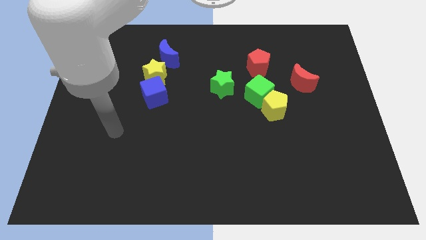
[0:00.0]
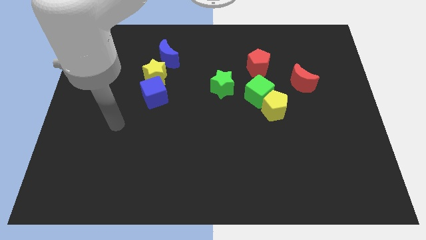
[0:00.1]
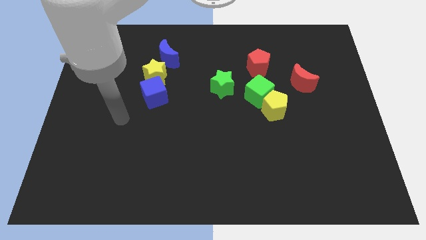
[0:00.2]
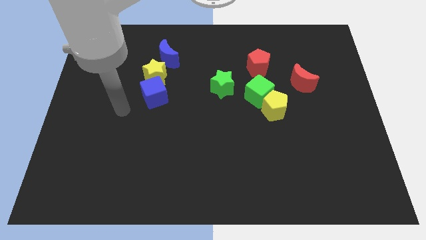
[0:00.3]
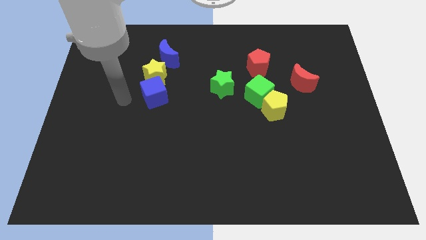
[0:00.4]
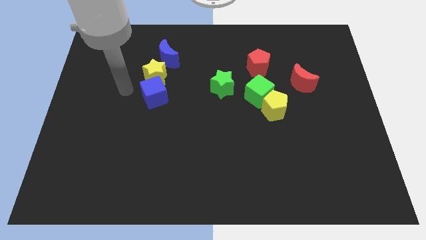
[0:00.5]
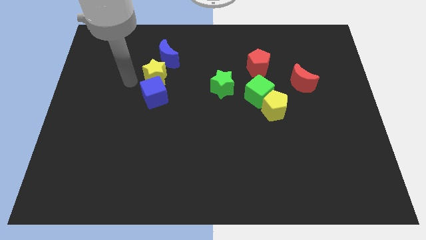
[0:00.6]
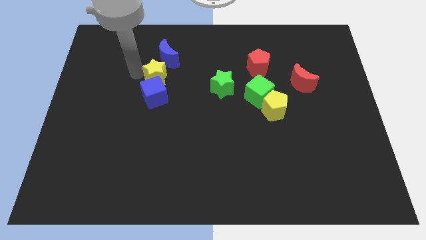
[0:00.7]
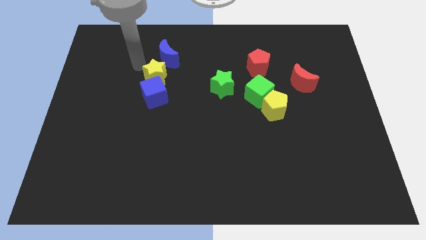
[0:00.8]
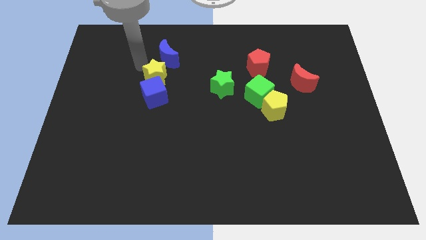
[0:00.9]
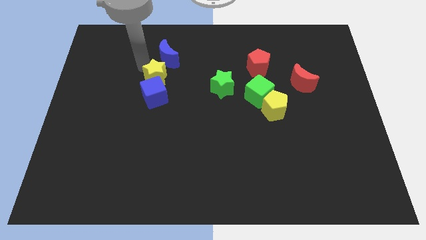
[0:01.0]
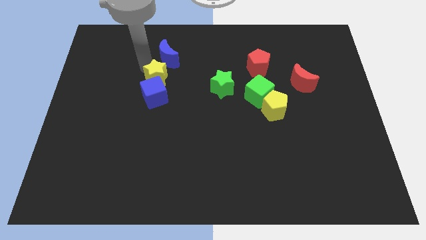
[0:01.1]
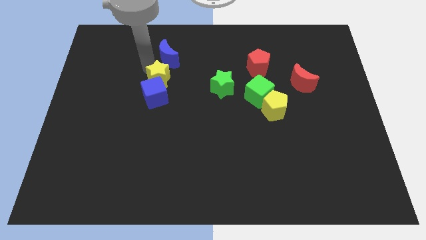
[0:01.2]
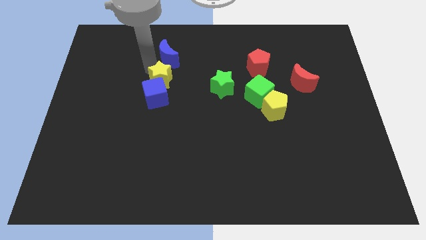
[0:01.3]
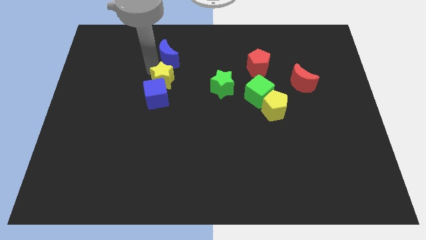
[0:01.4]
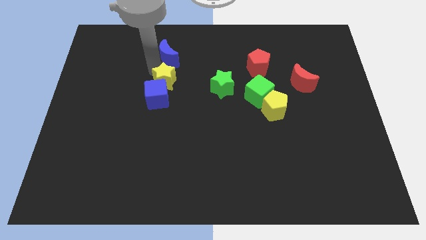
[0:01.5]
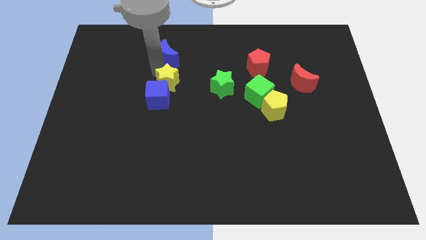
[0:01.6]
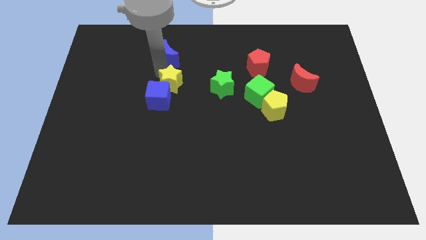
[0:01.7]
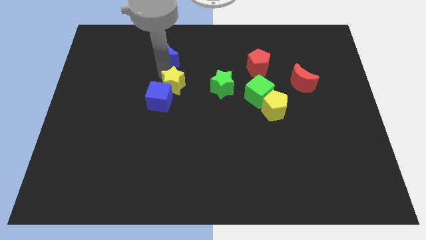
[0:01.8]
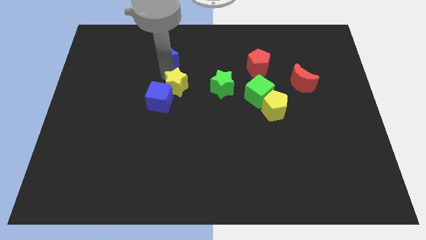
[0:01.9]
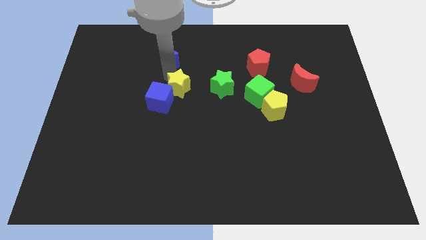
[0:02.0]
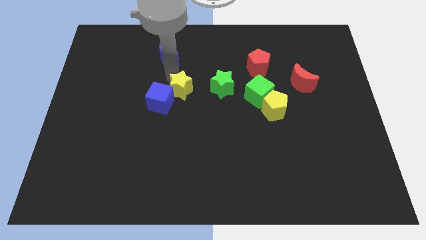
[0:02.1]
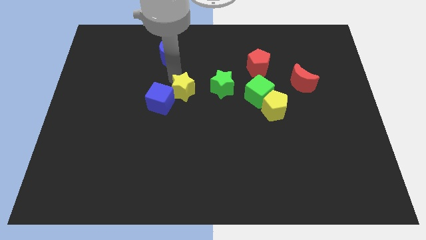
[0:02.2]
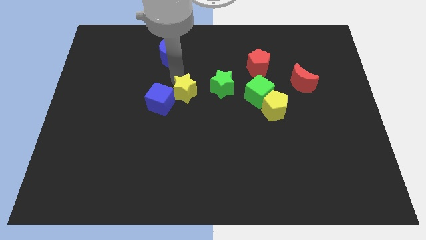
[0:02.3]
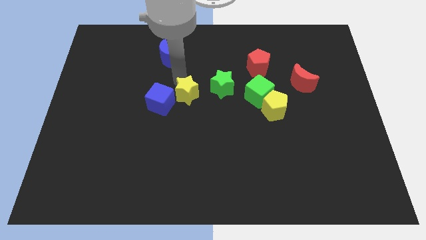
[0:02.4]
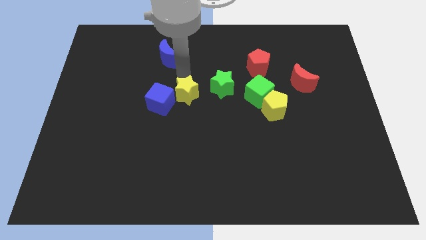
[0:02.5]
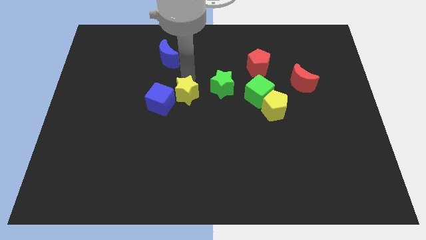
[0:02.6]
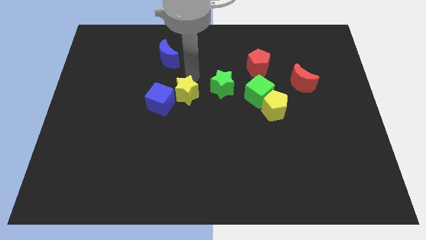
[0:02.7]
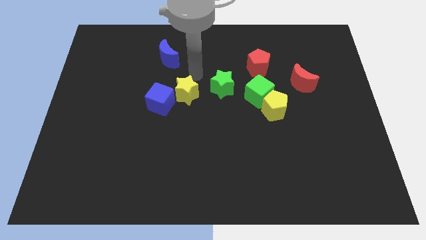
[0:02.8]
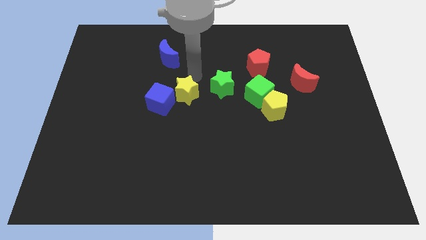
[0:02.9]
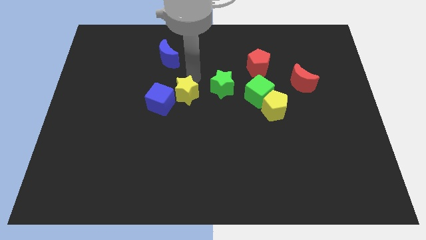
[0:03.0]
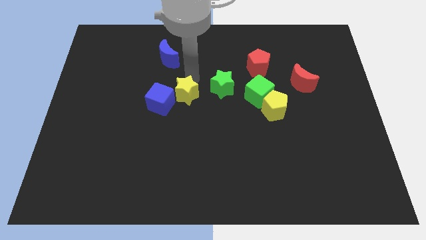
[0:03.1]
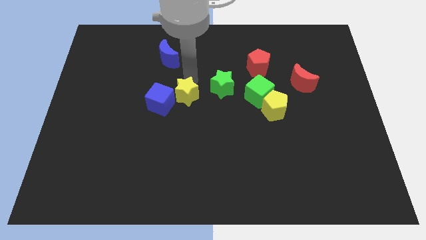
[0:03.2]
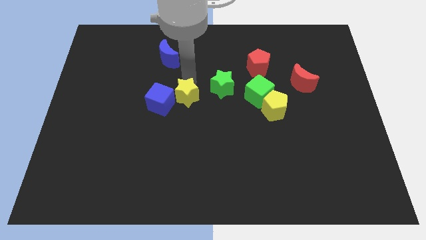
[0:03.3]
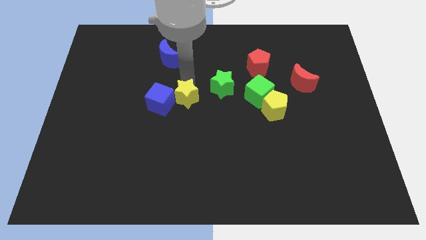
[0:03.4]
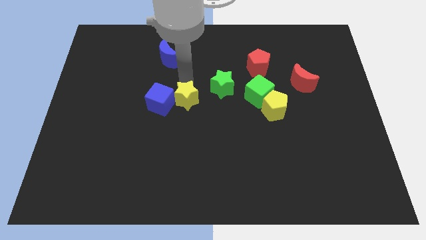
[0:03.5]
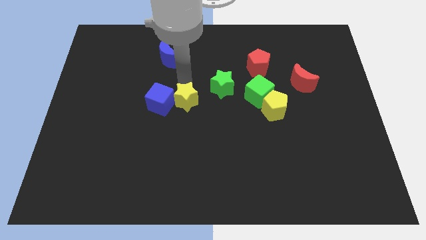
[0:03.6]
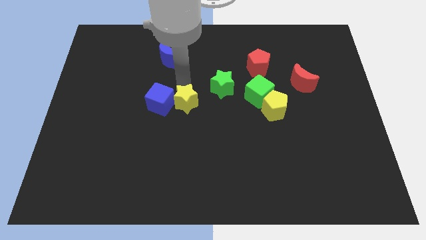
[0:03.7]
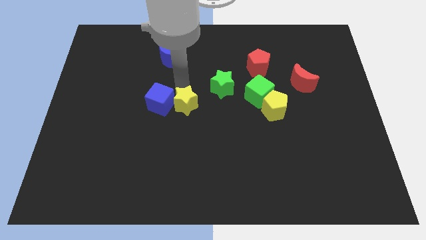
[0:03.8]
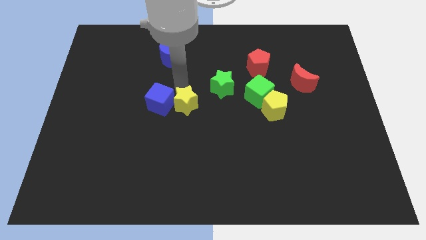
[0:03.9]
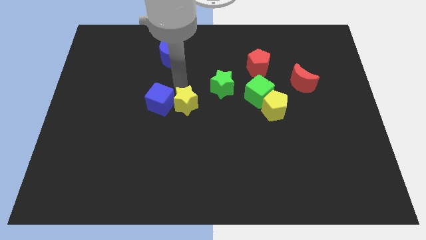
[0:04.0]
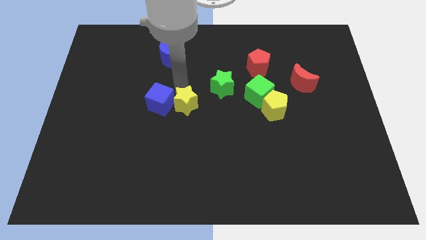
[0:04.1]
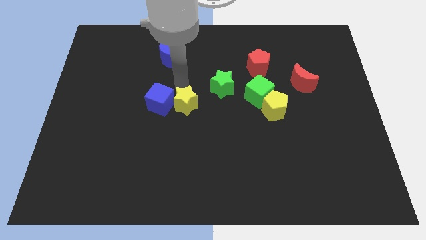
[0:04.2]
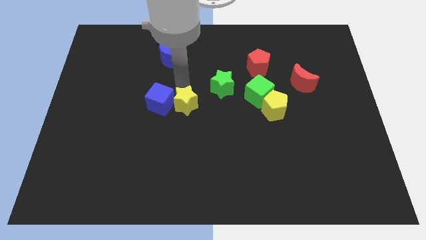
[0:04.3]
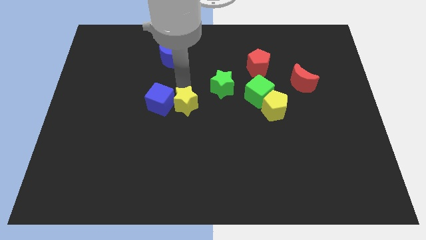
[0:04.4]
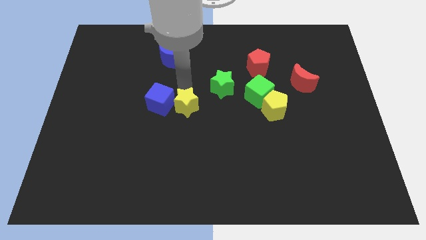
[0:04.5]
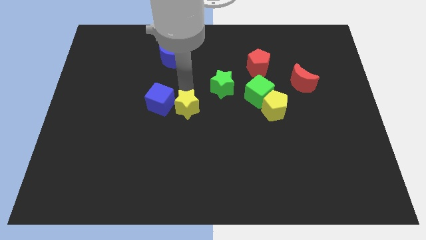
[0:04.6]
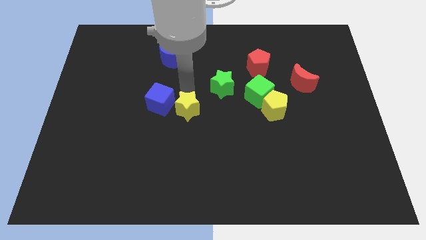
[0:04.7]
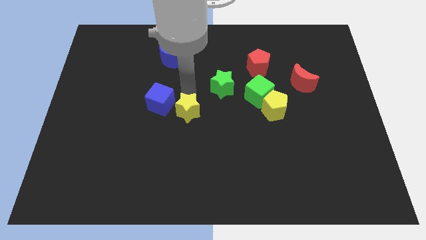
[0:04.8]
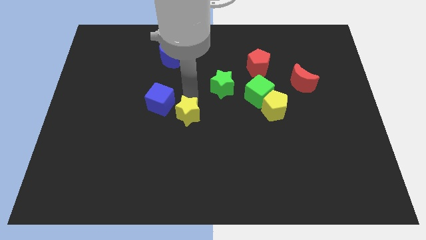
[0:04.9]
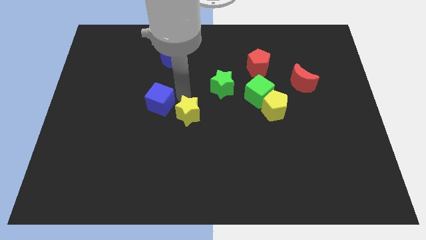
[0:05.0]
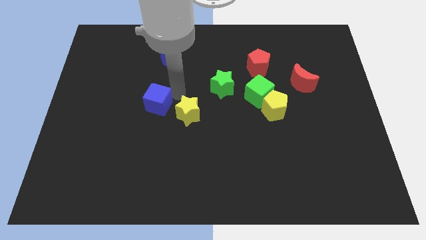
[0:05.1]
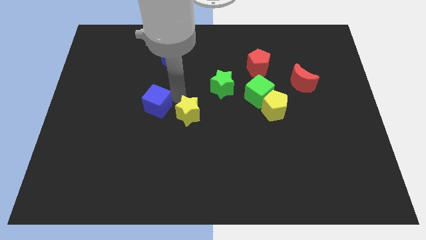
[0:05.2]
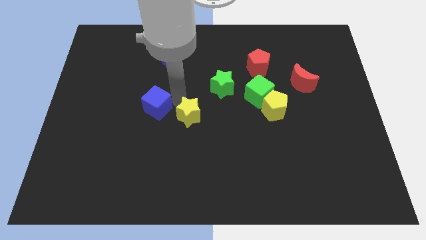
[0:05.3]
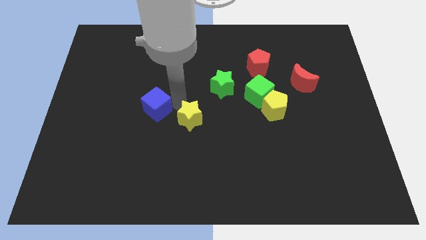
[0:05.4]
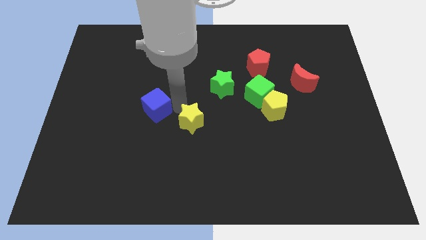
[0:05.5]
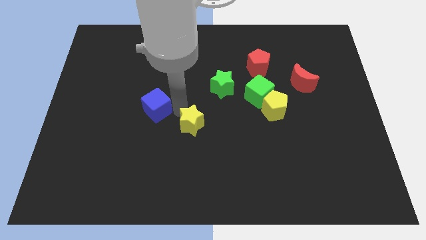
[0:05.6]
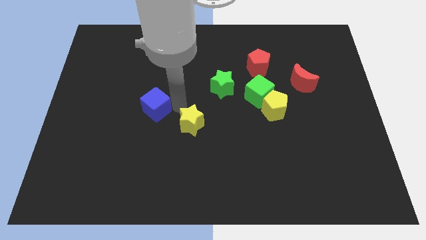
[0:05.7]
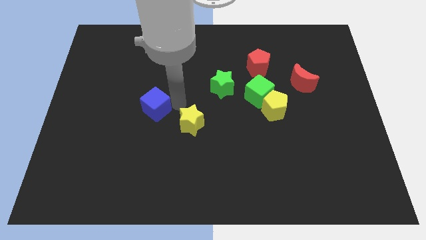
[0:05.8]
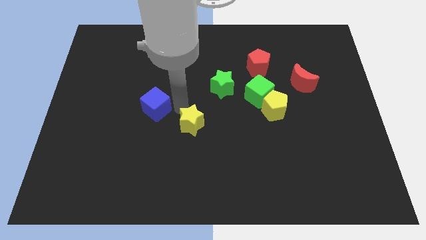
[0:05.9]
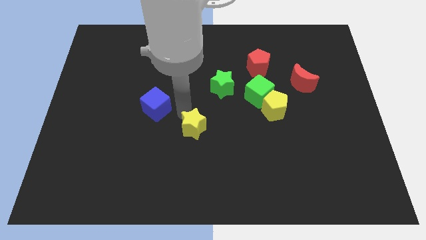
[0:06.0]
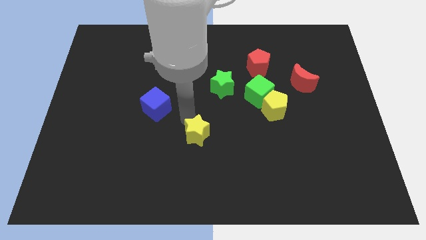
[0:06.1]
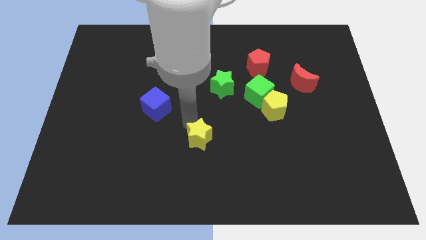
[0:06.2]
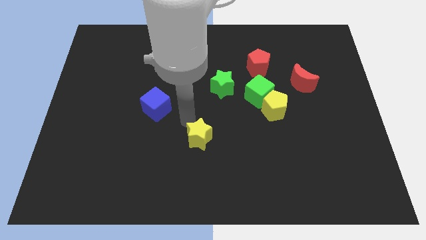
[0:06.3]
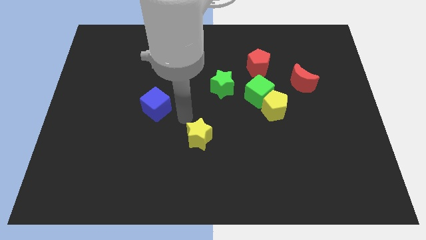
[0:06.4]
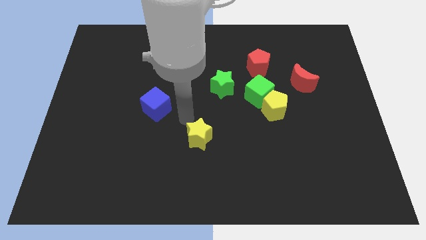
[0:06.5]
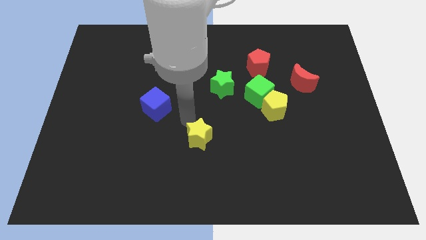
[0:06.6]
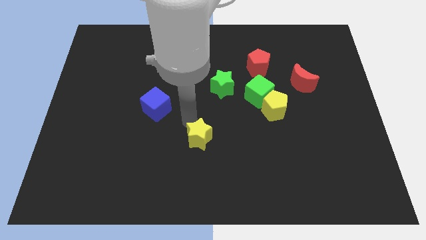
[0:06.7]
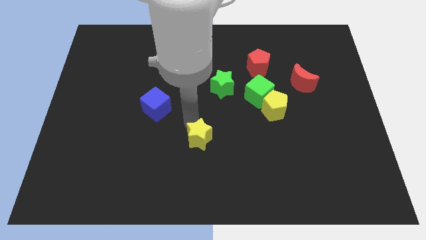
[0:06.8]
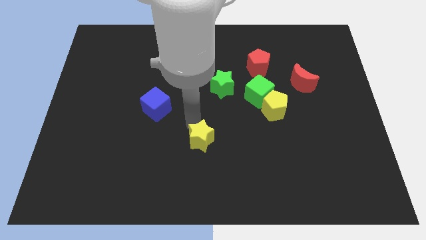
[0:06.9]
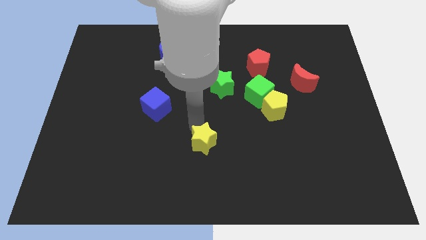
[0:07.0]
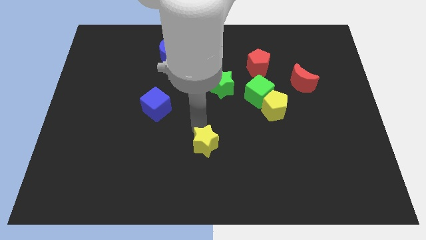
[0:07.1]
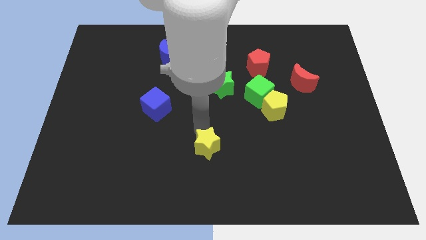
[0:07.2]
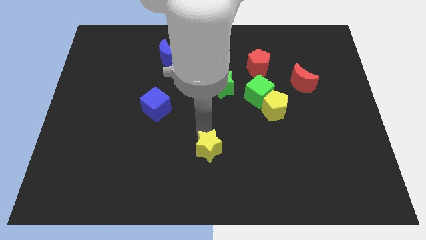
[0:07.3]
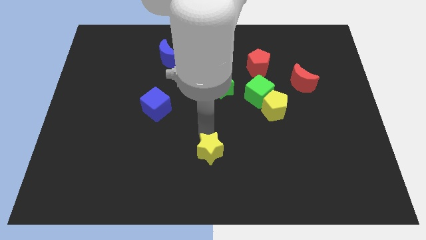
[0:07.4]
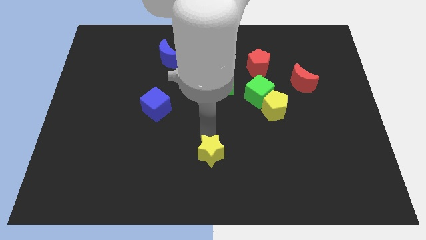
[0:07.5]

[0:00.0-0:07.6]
put the yellow star to the bottom side
